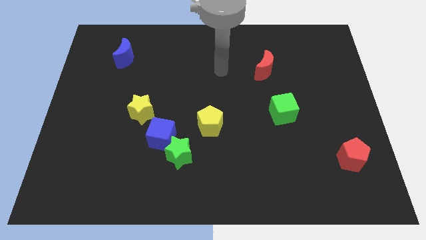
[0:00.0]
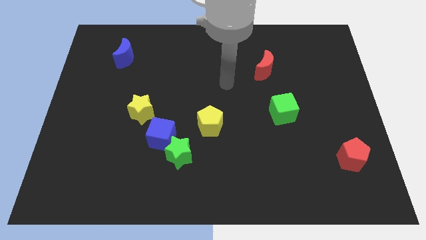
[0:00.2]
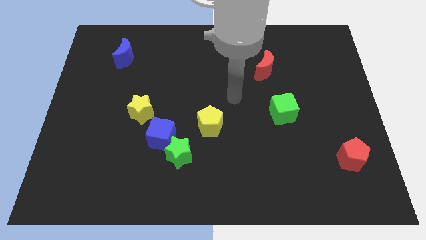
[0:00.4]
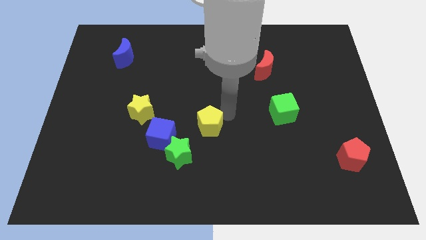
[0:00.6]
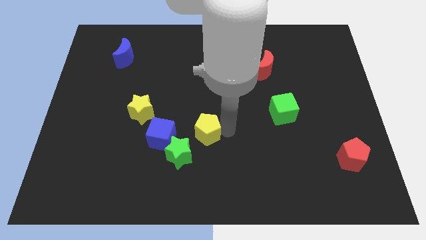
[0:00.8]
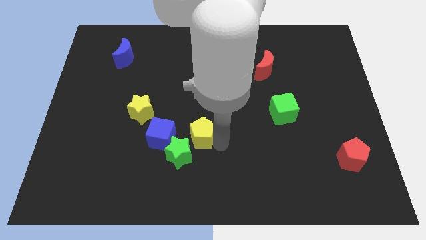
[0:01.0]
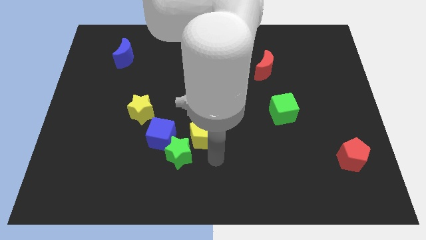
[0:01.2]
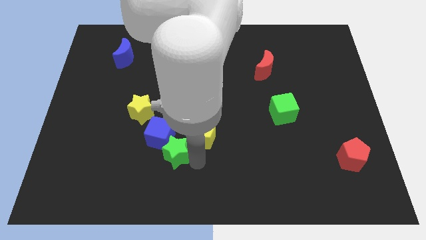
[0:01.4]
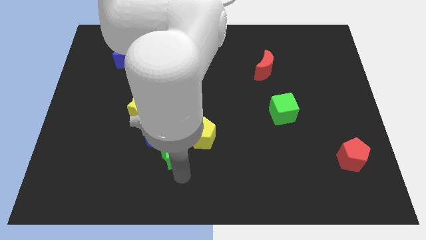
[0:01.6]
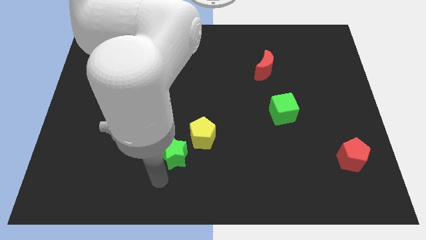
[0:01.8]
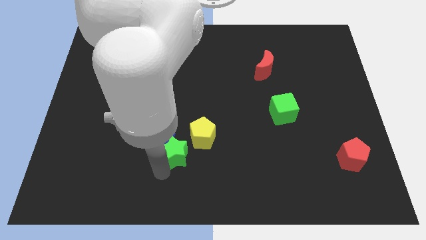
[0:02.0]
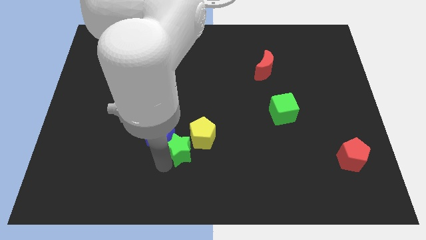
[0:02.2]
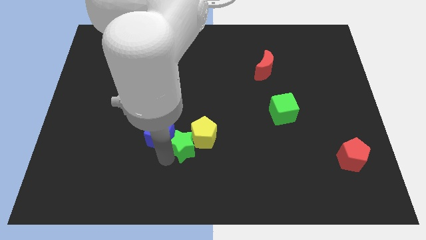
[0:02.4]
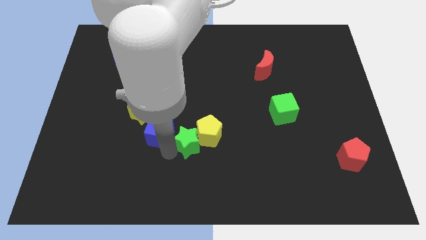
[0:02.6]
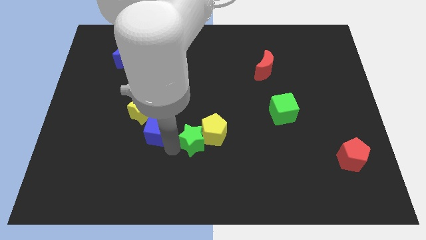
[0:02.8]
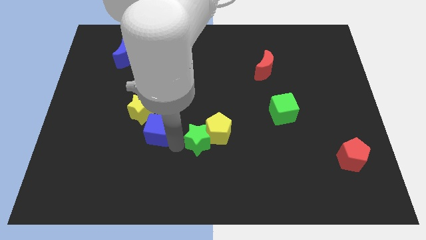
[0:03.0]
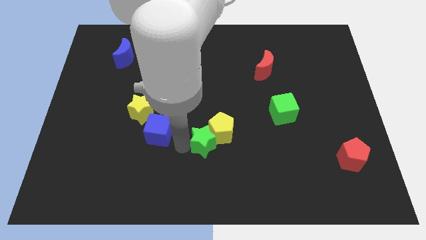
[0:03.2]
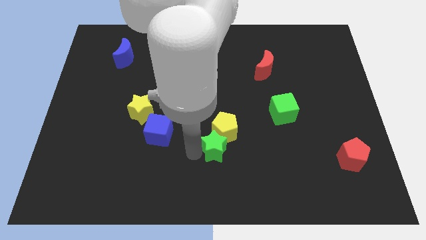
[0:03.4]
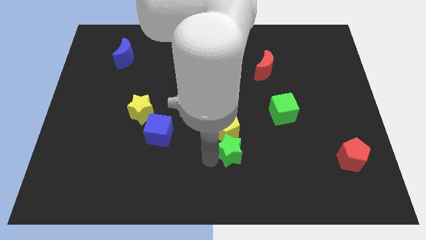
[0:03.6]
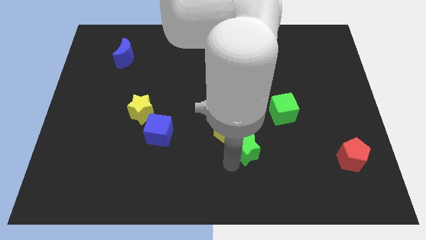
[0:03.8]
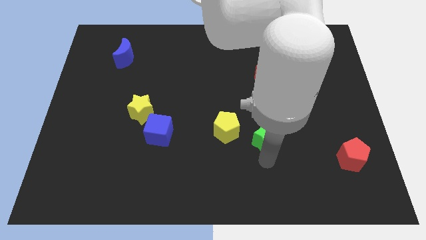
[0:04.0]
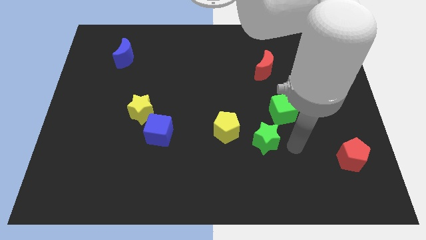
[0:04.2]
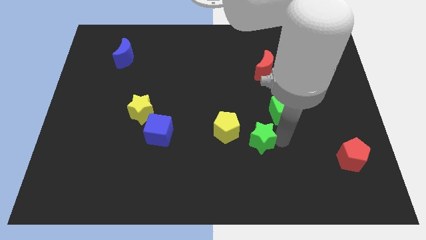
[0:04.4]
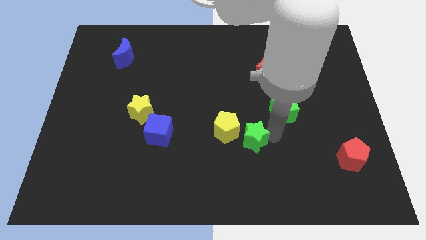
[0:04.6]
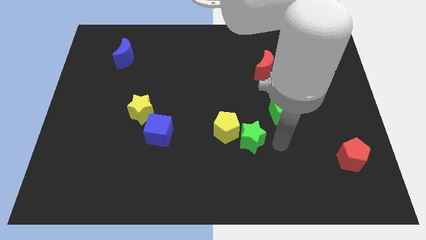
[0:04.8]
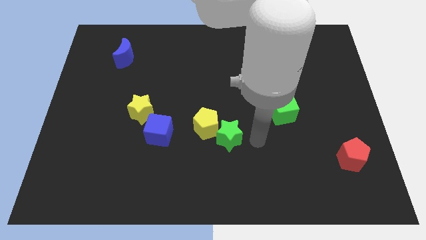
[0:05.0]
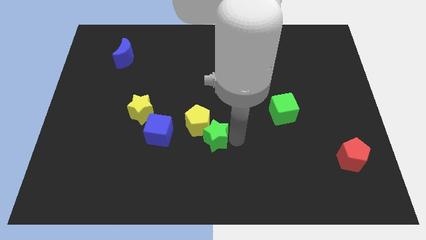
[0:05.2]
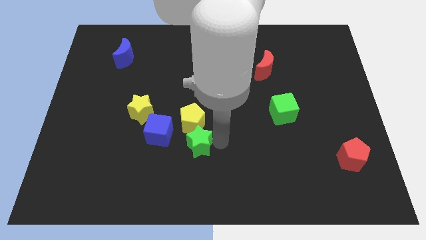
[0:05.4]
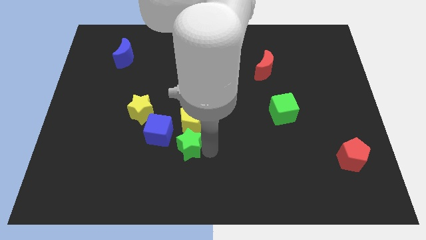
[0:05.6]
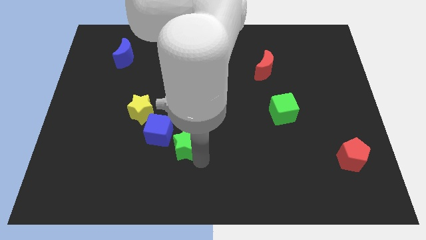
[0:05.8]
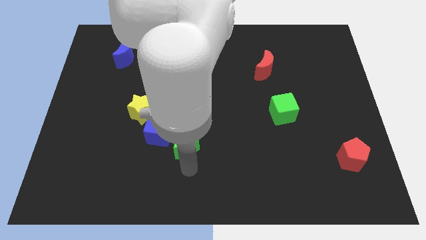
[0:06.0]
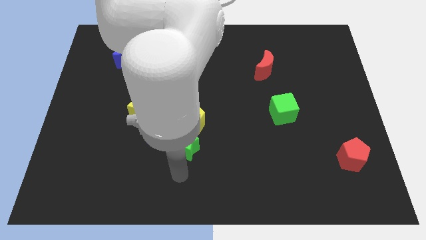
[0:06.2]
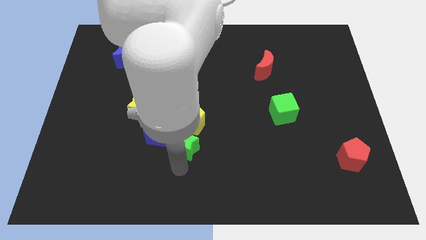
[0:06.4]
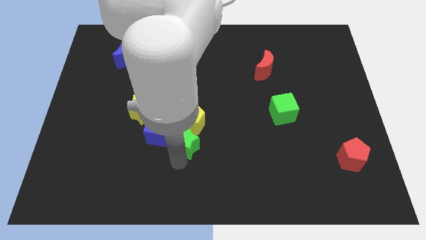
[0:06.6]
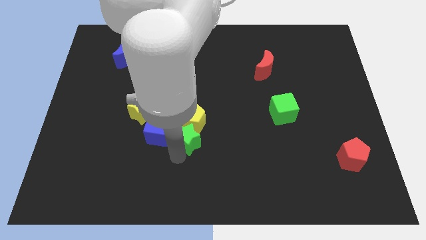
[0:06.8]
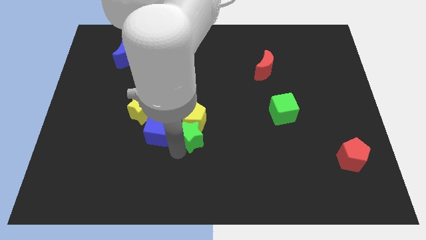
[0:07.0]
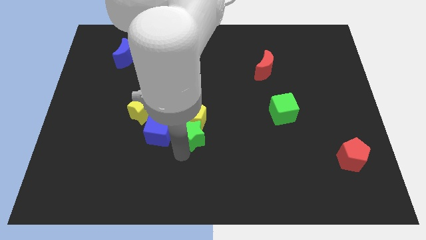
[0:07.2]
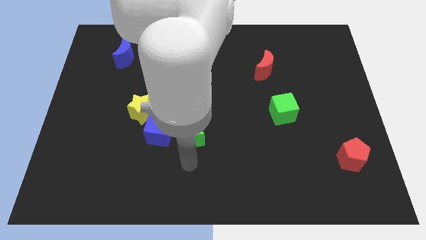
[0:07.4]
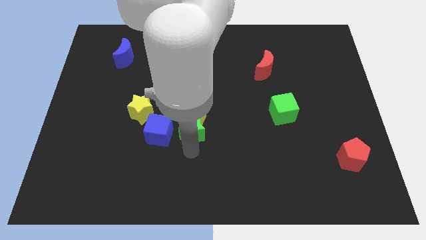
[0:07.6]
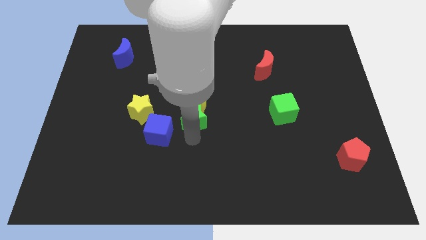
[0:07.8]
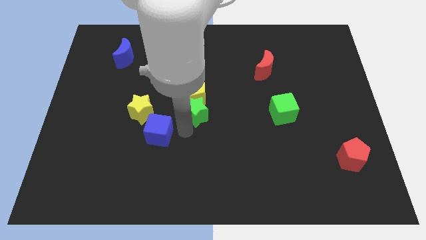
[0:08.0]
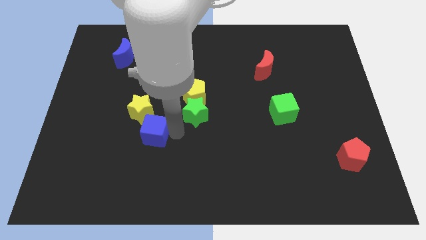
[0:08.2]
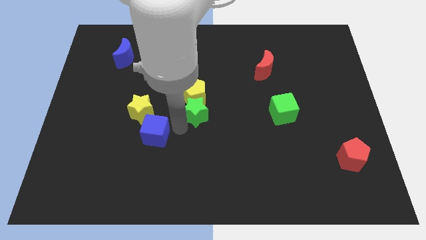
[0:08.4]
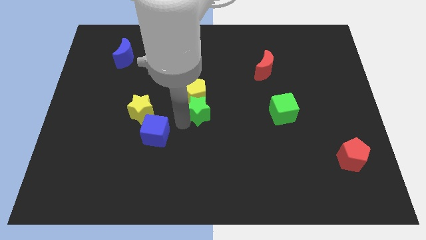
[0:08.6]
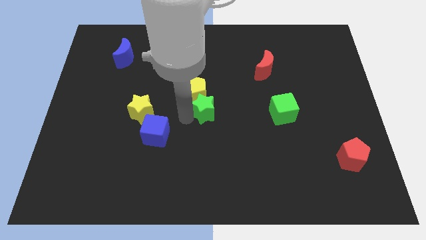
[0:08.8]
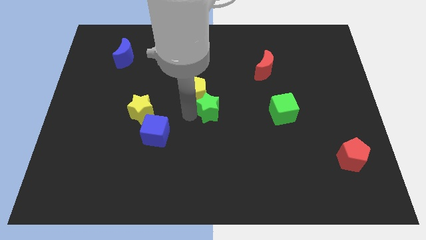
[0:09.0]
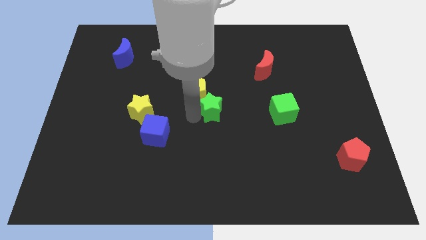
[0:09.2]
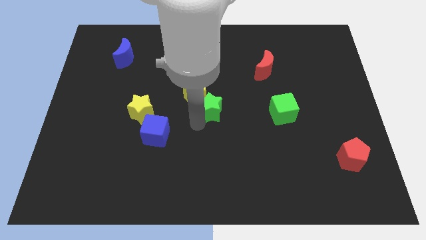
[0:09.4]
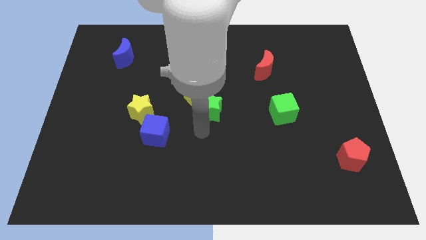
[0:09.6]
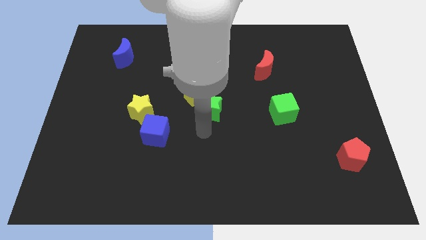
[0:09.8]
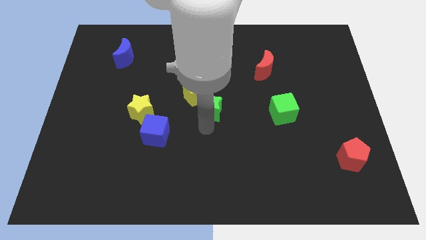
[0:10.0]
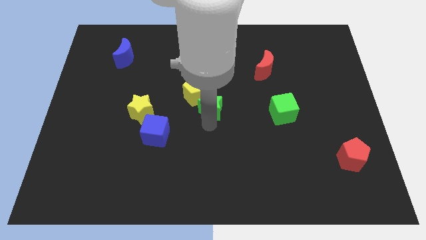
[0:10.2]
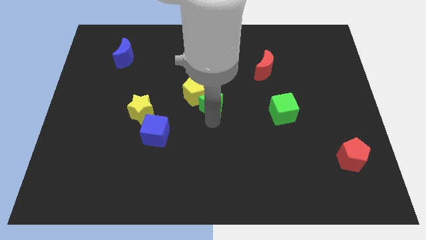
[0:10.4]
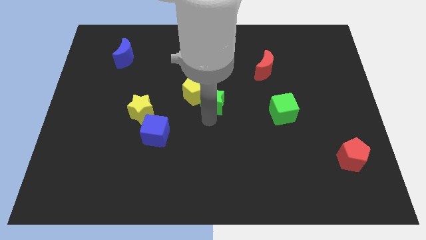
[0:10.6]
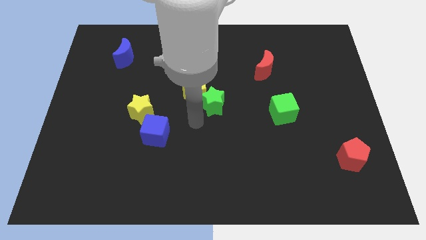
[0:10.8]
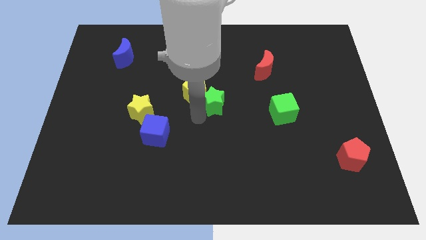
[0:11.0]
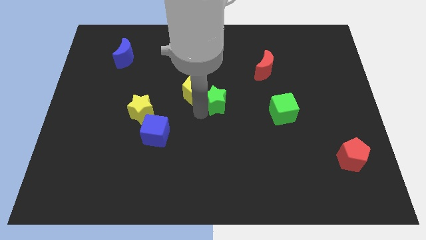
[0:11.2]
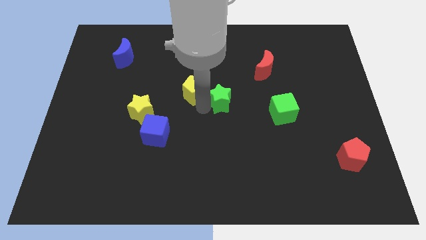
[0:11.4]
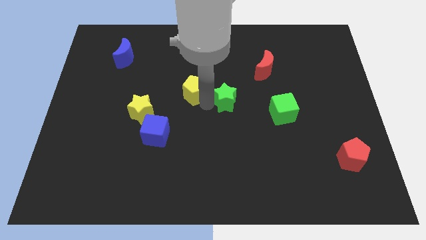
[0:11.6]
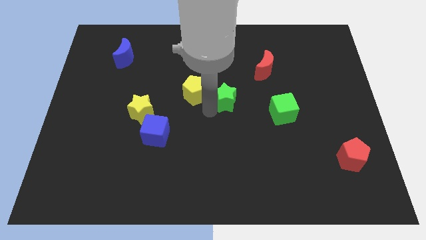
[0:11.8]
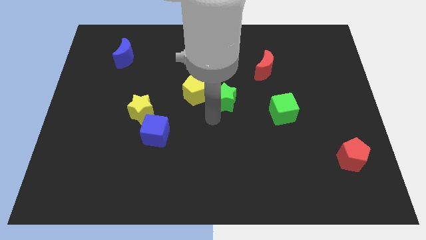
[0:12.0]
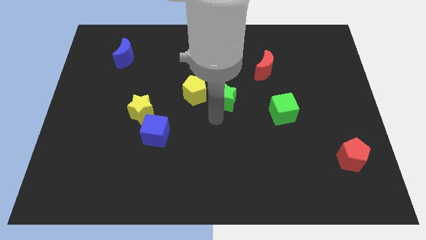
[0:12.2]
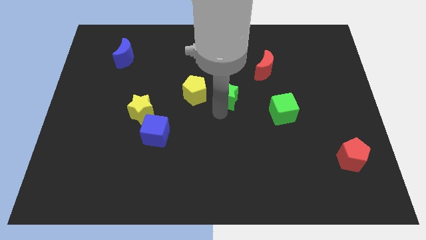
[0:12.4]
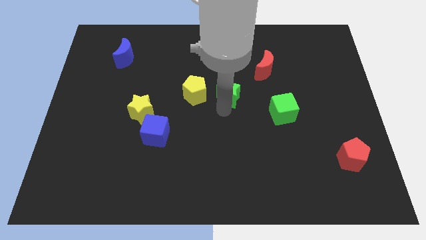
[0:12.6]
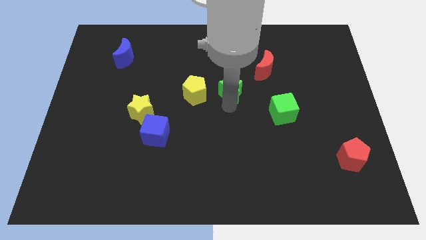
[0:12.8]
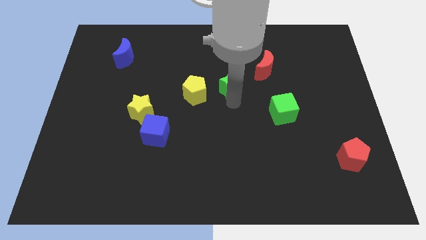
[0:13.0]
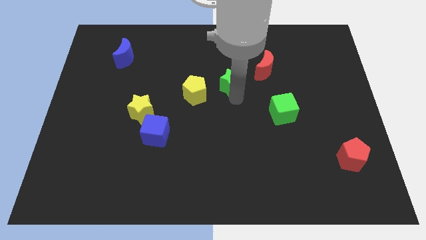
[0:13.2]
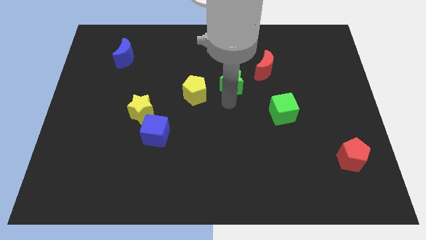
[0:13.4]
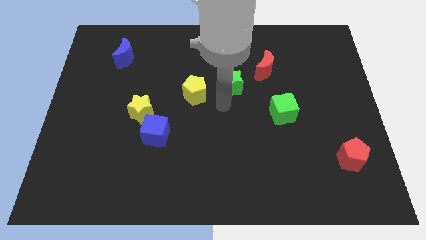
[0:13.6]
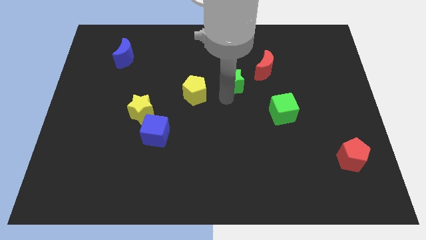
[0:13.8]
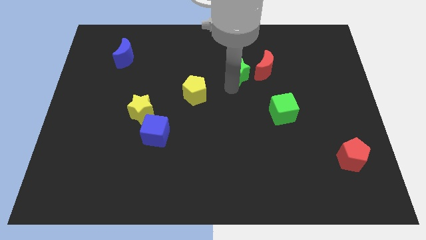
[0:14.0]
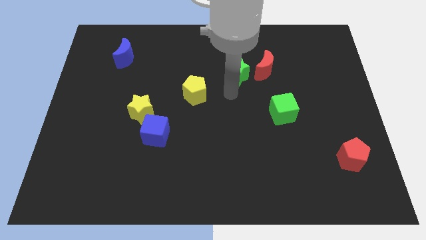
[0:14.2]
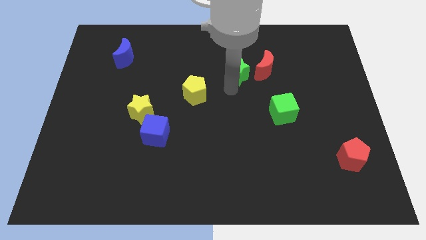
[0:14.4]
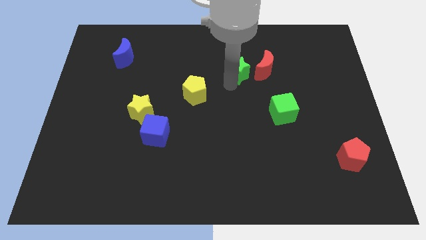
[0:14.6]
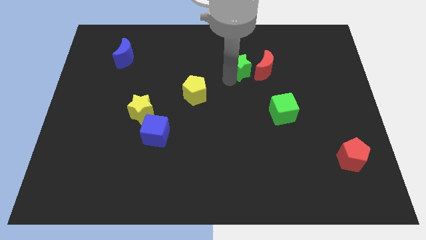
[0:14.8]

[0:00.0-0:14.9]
slide the green star to the top left of the red moon
